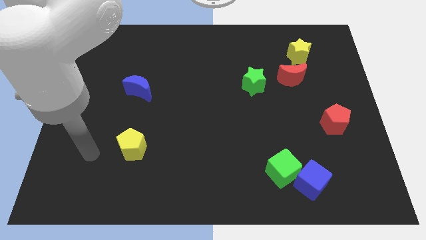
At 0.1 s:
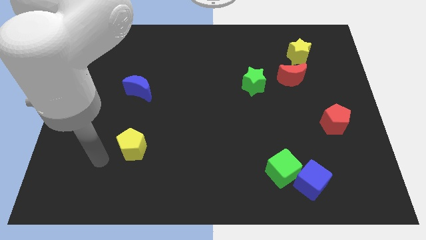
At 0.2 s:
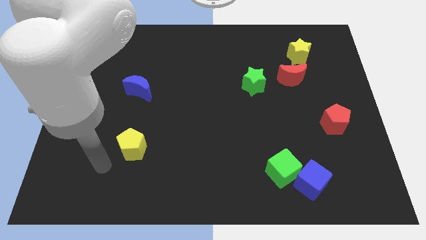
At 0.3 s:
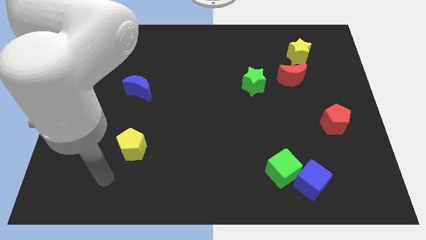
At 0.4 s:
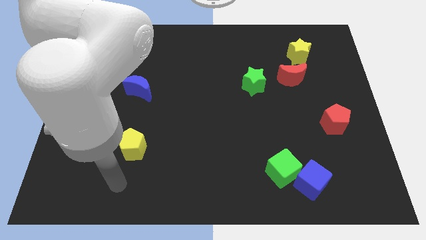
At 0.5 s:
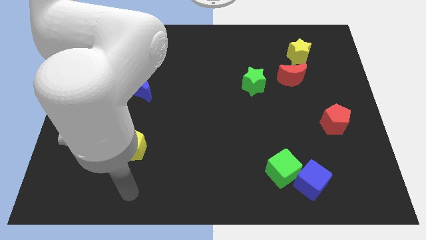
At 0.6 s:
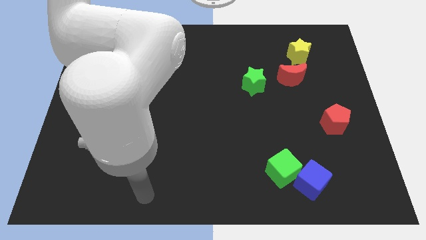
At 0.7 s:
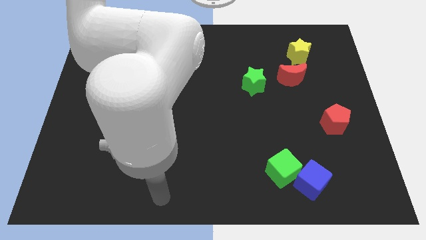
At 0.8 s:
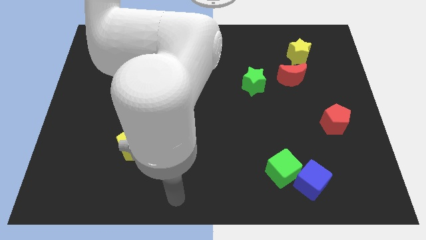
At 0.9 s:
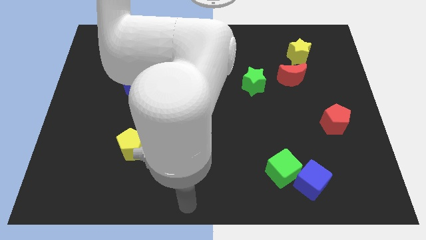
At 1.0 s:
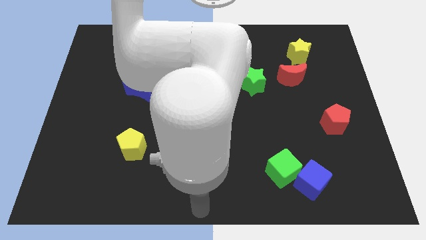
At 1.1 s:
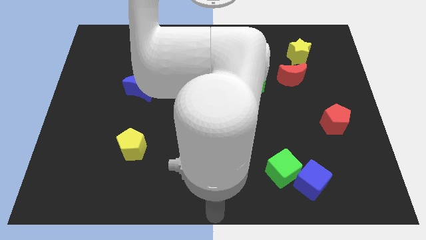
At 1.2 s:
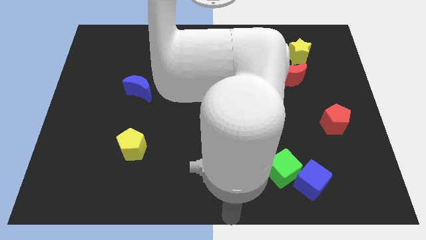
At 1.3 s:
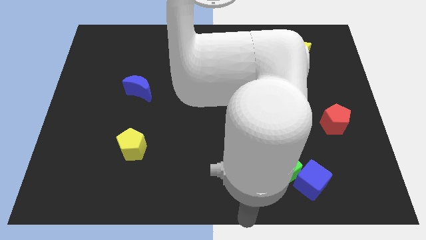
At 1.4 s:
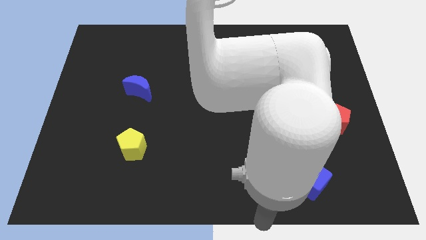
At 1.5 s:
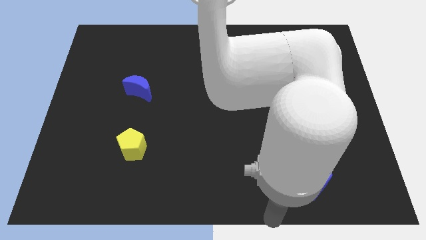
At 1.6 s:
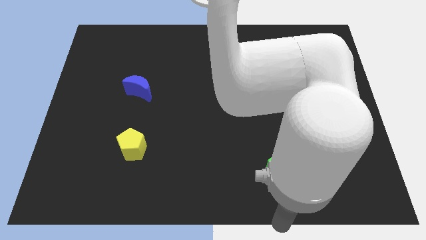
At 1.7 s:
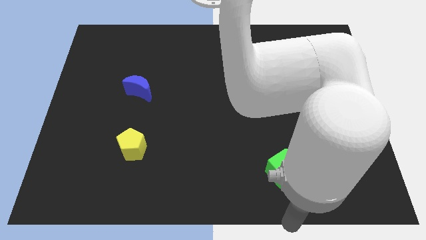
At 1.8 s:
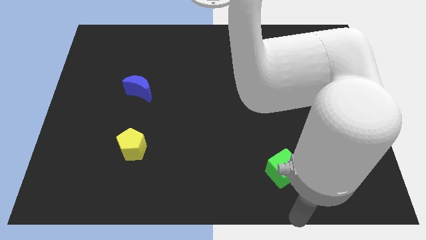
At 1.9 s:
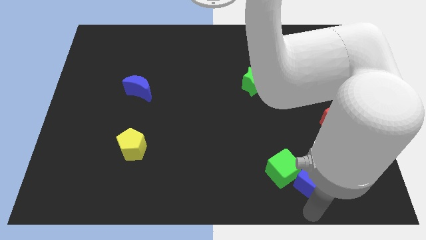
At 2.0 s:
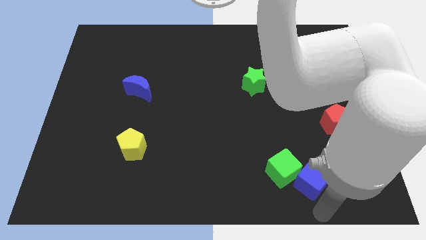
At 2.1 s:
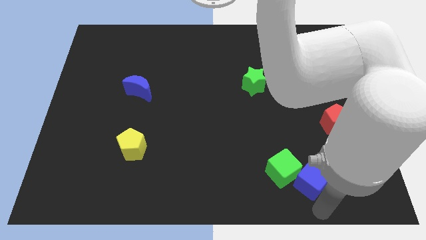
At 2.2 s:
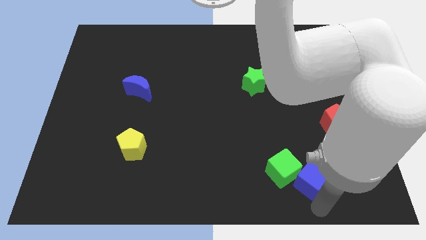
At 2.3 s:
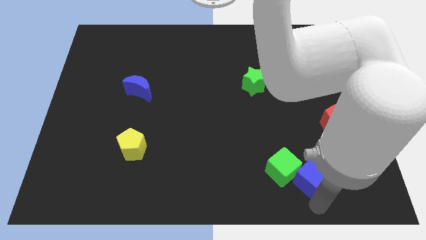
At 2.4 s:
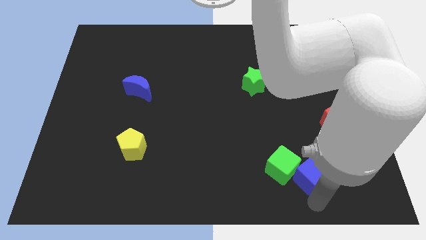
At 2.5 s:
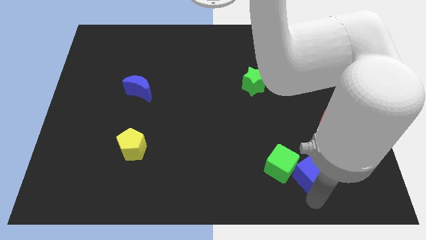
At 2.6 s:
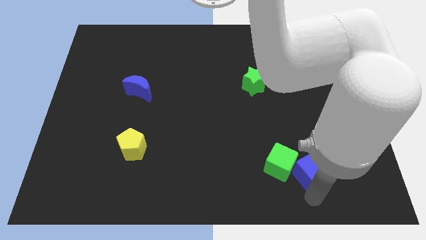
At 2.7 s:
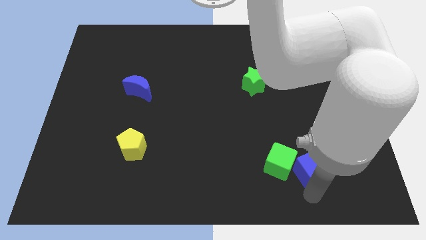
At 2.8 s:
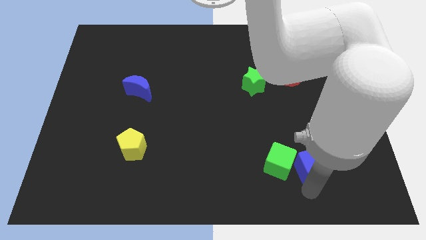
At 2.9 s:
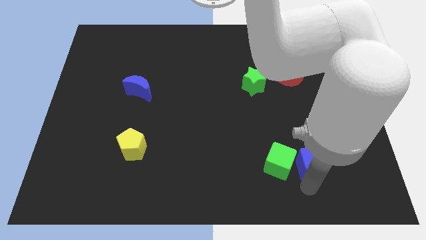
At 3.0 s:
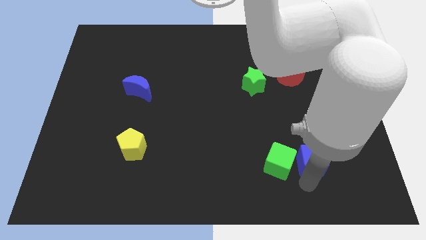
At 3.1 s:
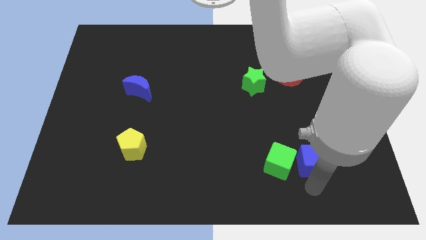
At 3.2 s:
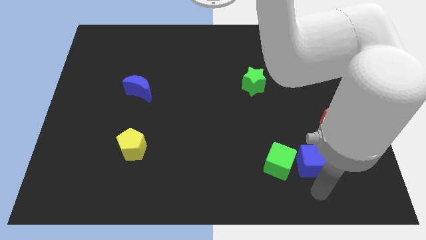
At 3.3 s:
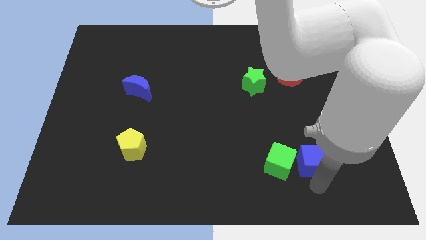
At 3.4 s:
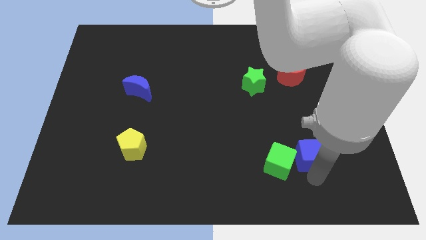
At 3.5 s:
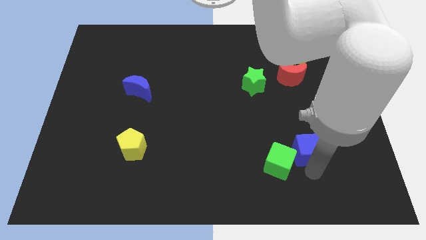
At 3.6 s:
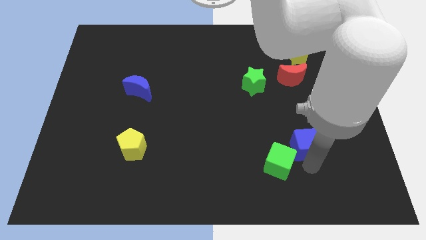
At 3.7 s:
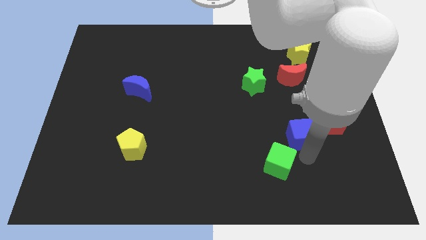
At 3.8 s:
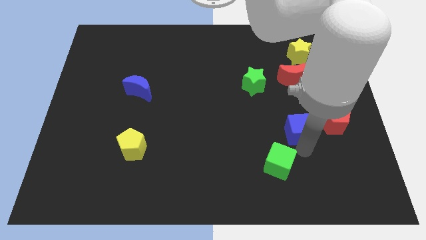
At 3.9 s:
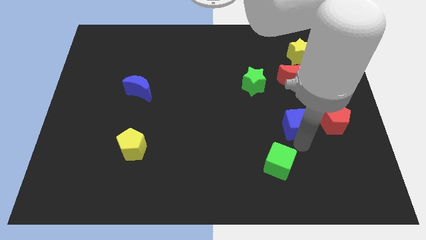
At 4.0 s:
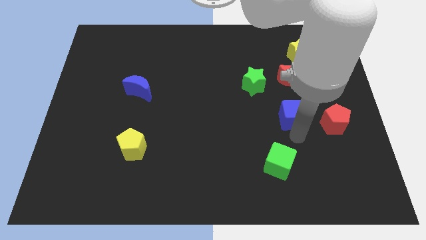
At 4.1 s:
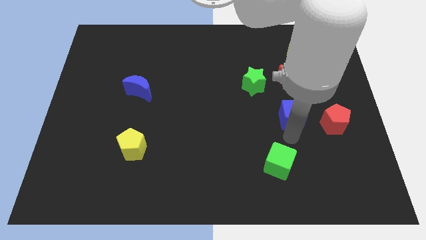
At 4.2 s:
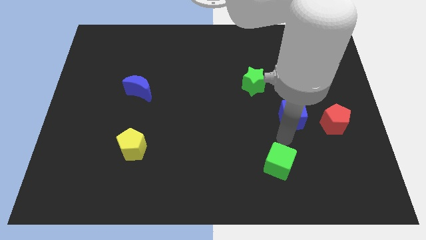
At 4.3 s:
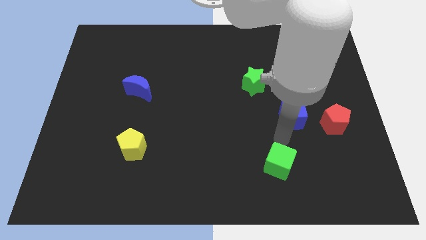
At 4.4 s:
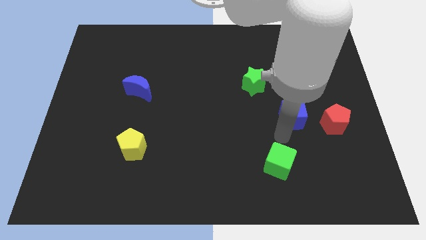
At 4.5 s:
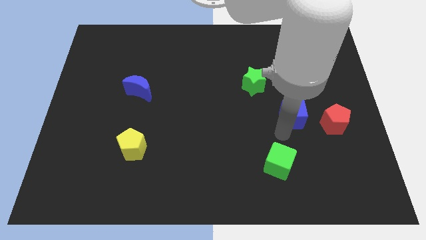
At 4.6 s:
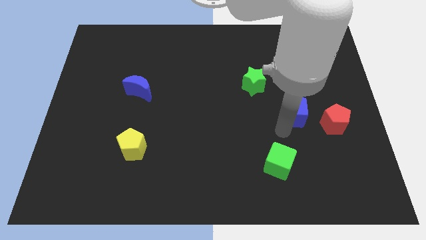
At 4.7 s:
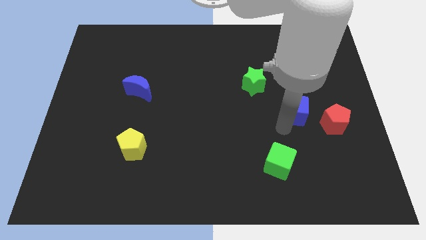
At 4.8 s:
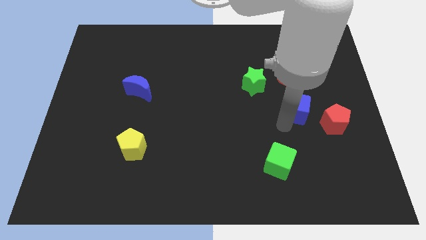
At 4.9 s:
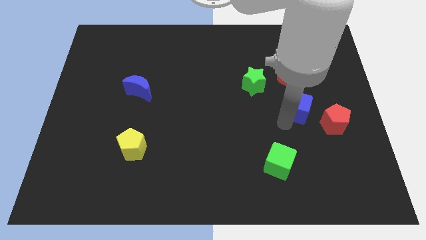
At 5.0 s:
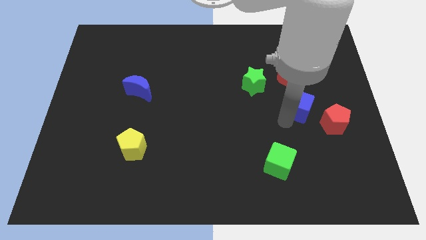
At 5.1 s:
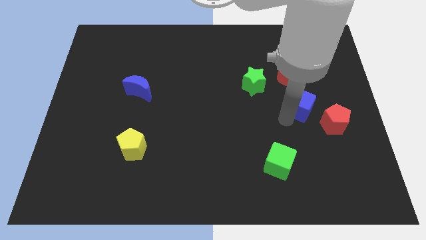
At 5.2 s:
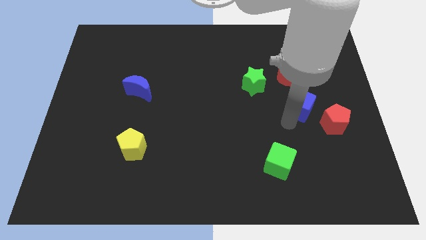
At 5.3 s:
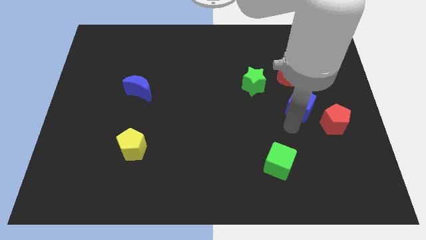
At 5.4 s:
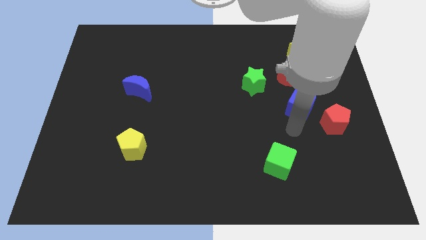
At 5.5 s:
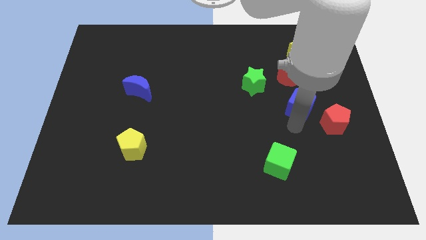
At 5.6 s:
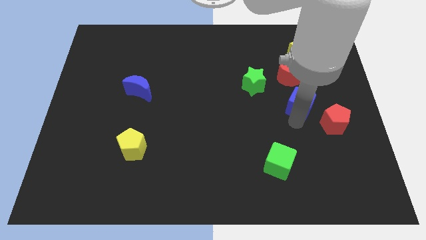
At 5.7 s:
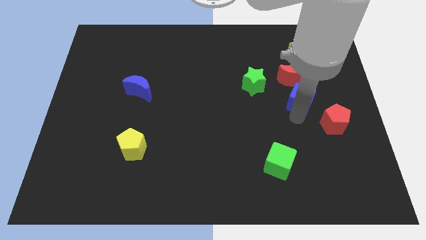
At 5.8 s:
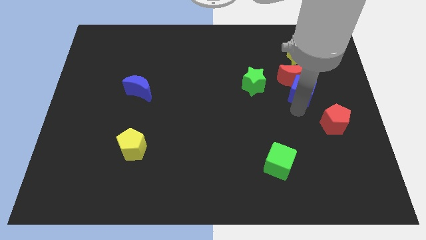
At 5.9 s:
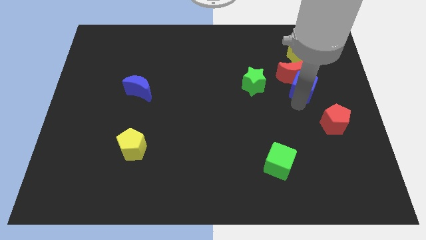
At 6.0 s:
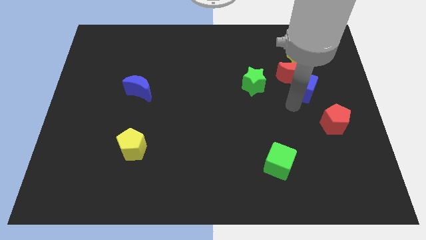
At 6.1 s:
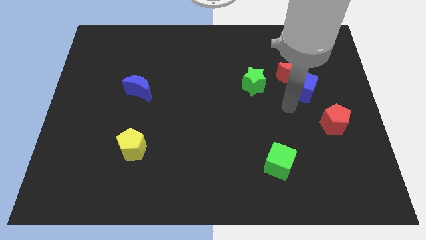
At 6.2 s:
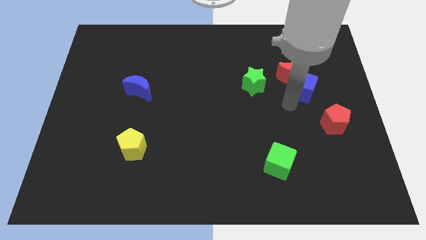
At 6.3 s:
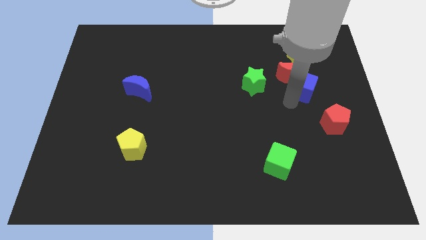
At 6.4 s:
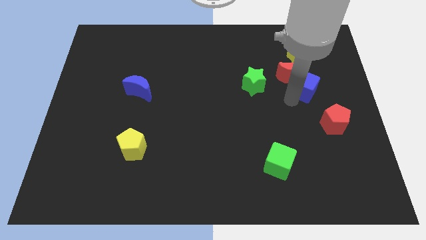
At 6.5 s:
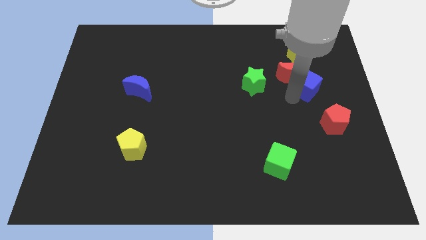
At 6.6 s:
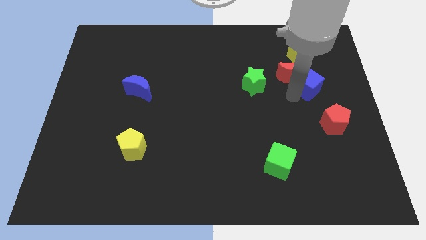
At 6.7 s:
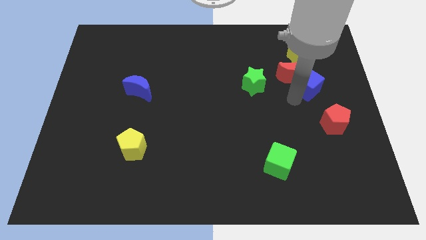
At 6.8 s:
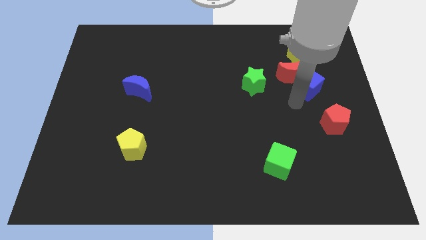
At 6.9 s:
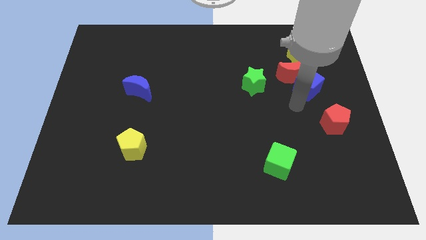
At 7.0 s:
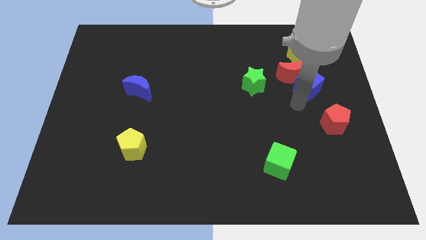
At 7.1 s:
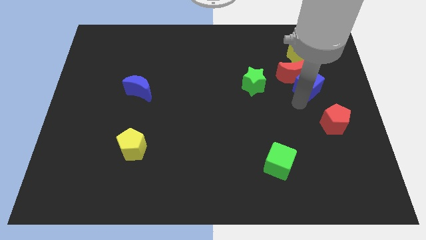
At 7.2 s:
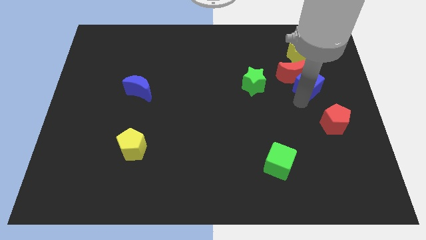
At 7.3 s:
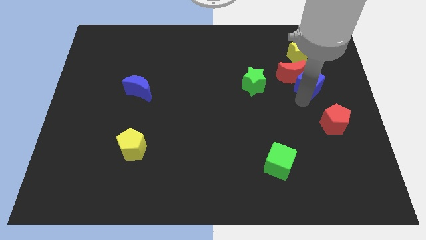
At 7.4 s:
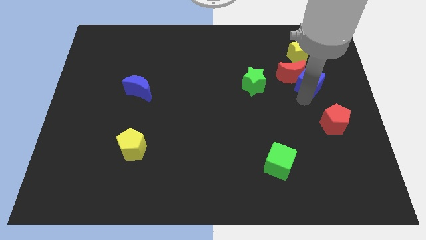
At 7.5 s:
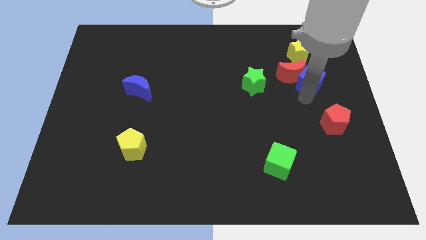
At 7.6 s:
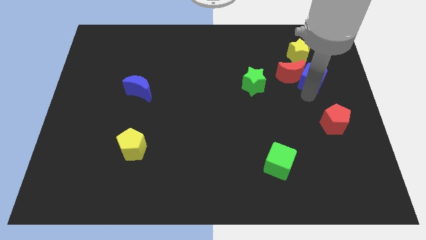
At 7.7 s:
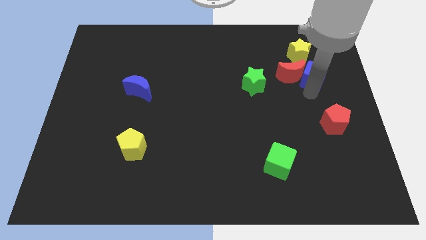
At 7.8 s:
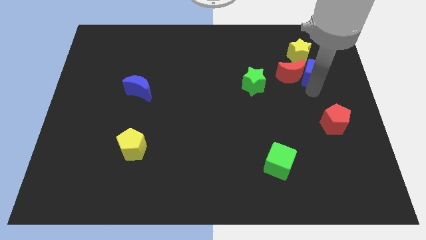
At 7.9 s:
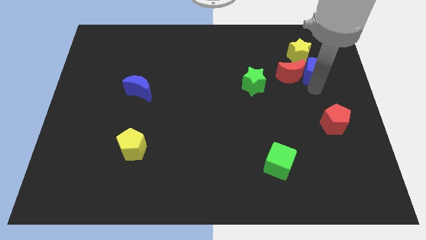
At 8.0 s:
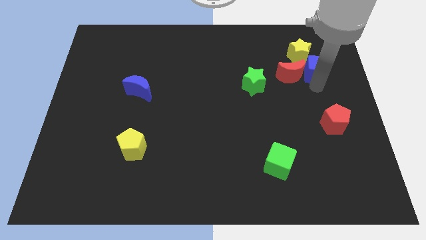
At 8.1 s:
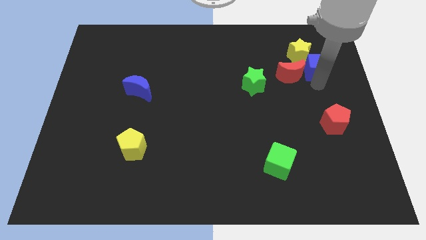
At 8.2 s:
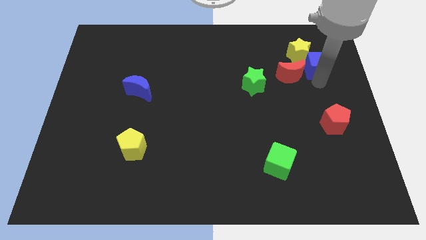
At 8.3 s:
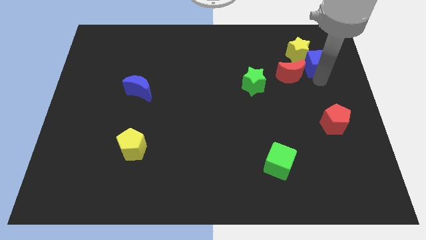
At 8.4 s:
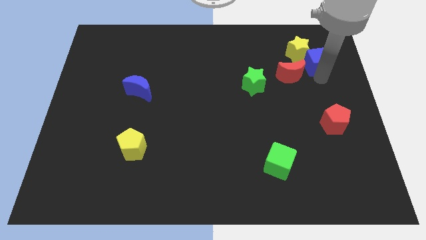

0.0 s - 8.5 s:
slide the blue cube next to the yellow star
